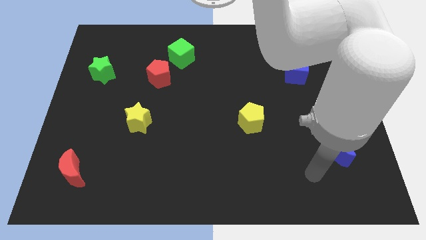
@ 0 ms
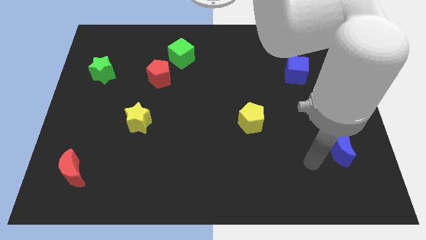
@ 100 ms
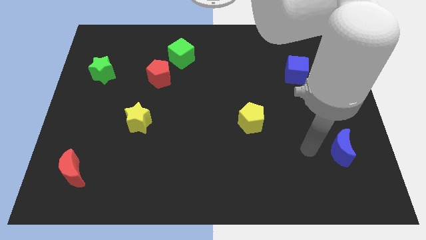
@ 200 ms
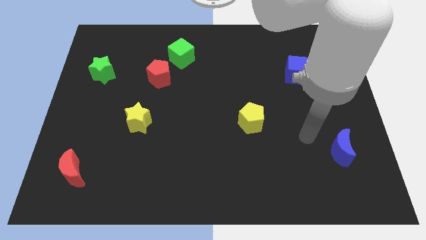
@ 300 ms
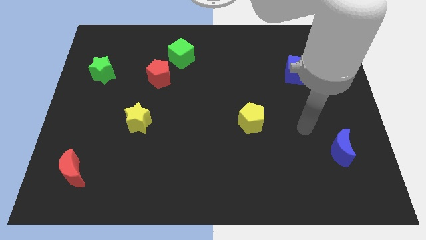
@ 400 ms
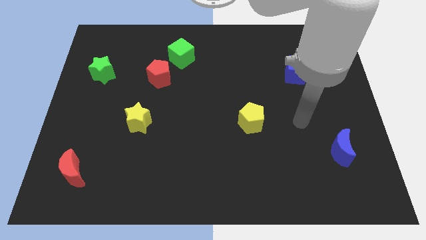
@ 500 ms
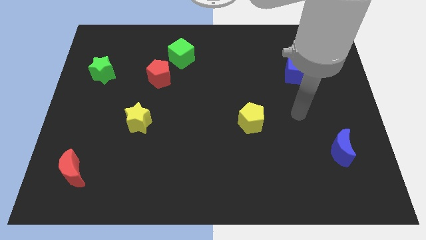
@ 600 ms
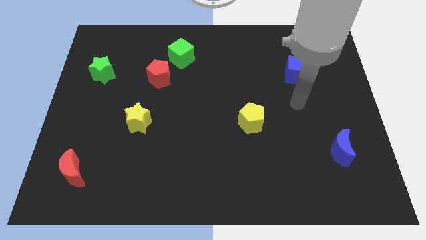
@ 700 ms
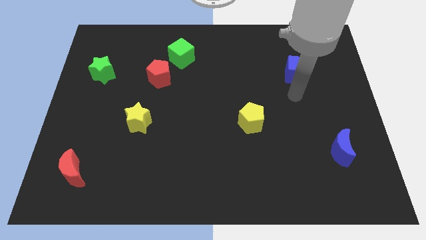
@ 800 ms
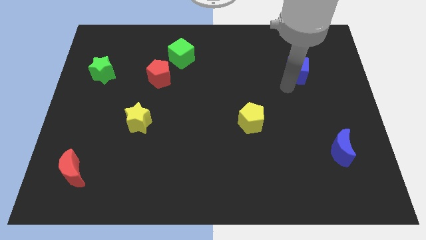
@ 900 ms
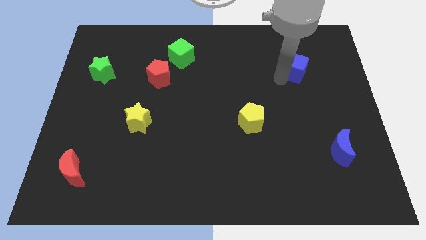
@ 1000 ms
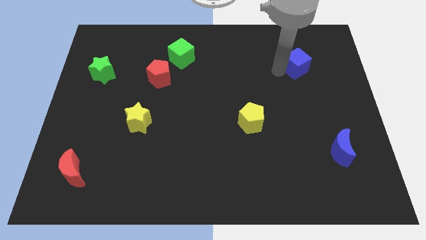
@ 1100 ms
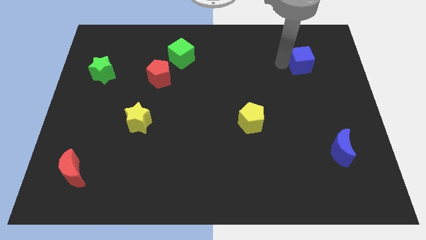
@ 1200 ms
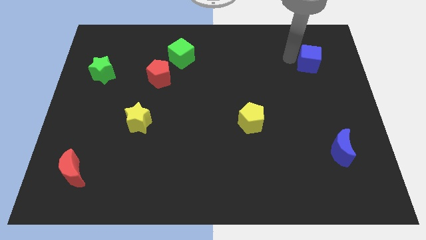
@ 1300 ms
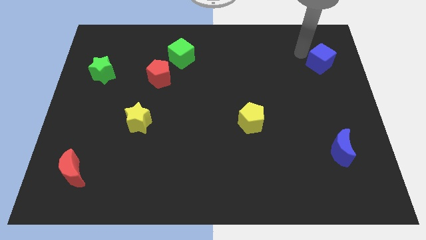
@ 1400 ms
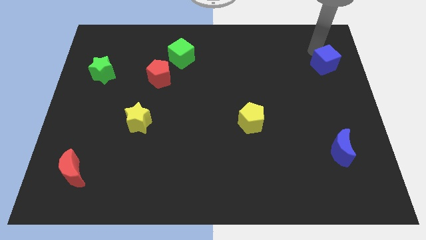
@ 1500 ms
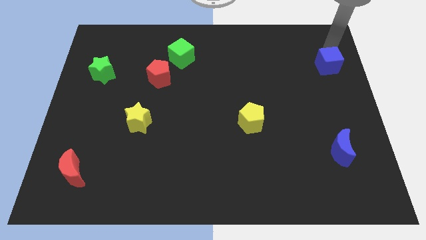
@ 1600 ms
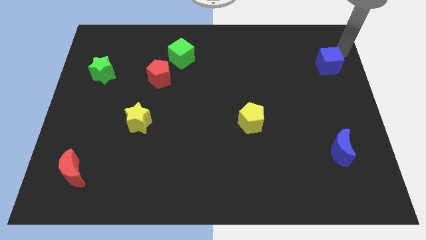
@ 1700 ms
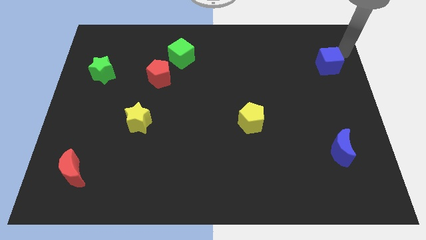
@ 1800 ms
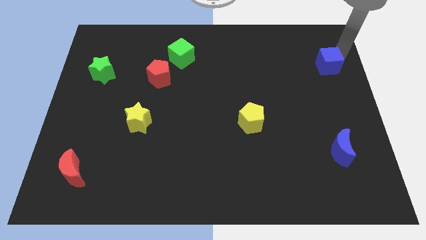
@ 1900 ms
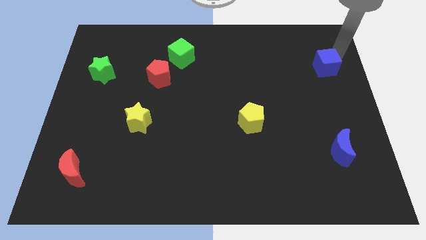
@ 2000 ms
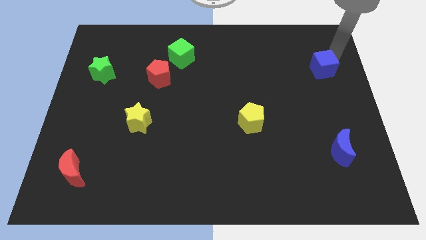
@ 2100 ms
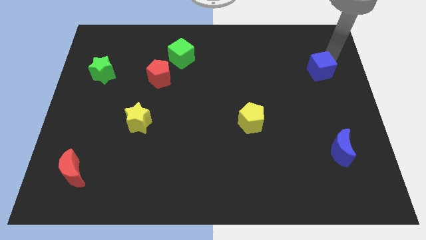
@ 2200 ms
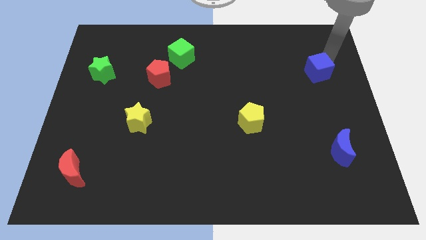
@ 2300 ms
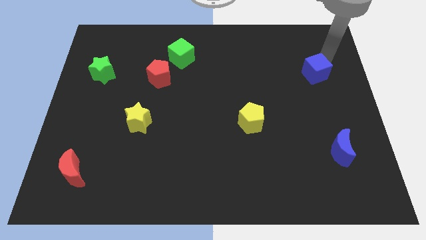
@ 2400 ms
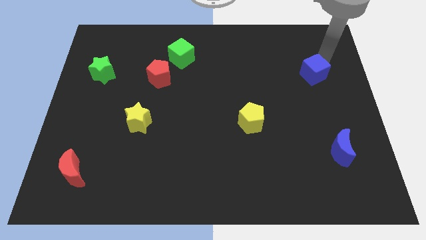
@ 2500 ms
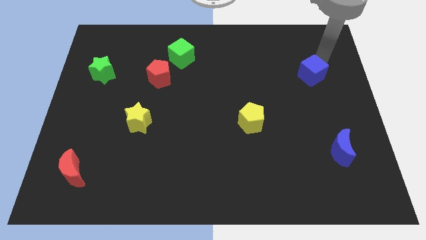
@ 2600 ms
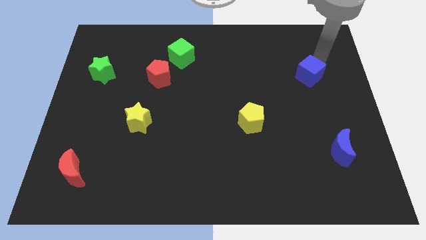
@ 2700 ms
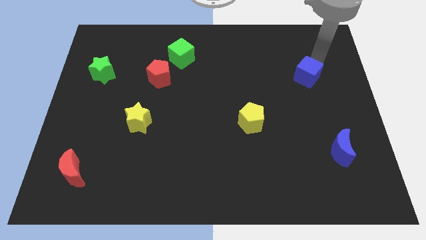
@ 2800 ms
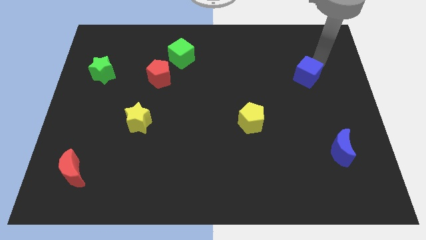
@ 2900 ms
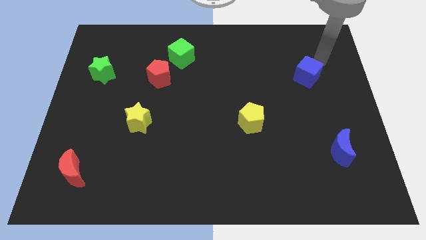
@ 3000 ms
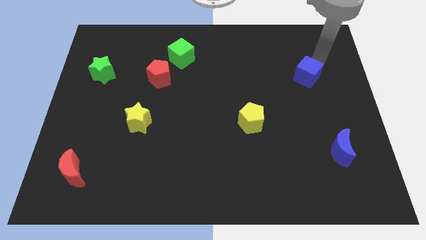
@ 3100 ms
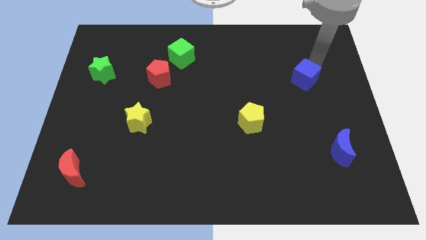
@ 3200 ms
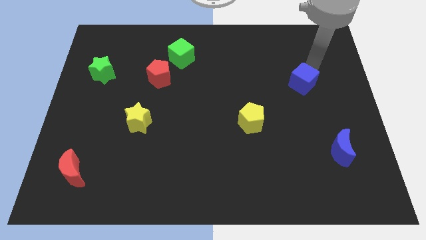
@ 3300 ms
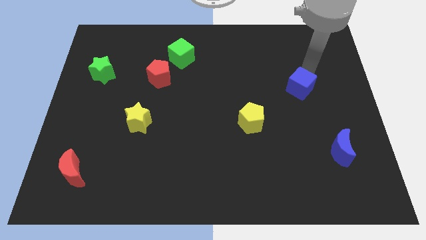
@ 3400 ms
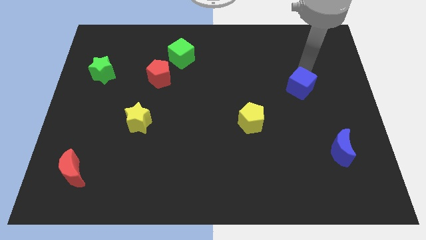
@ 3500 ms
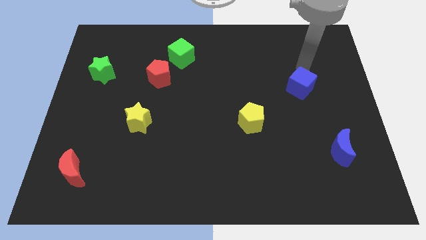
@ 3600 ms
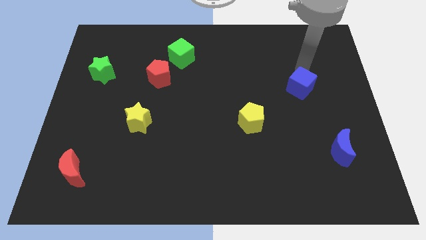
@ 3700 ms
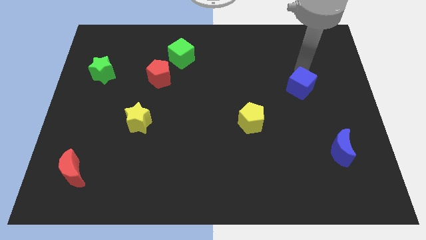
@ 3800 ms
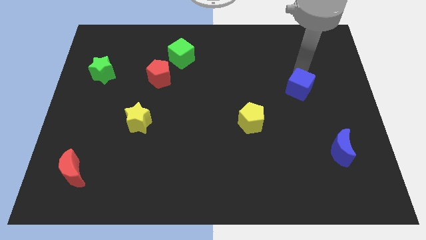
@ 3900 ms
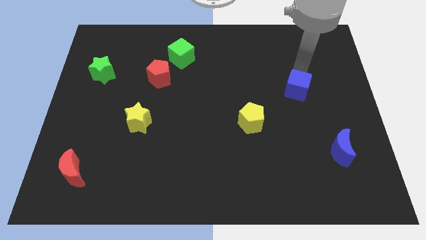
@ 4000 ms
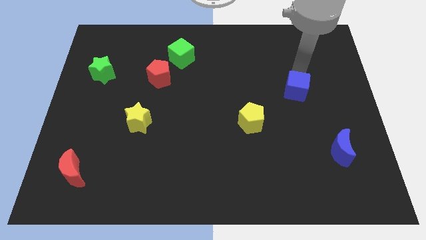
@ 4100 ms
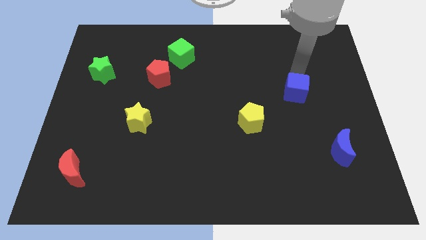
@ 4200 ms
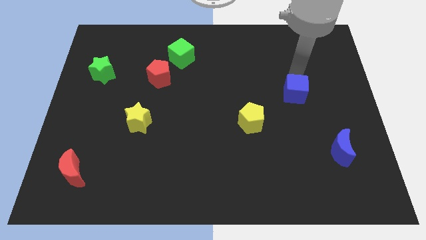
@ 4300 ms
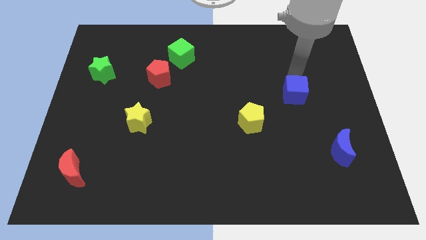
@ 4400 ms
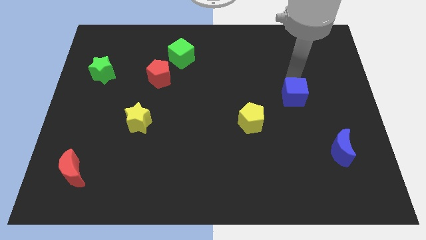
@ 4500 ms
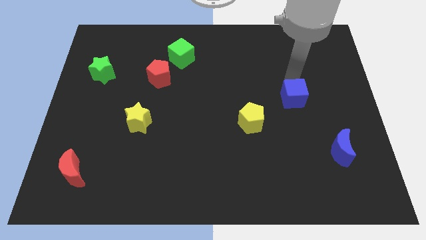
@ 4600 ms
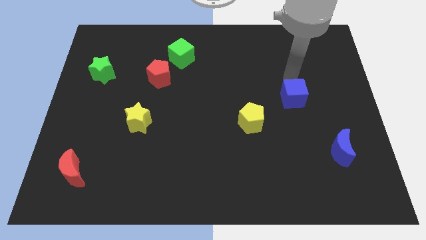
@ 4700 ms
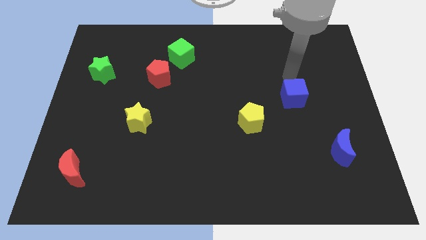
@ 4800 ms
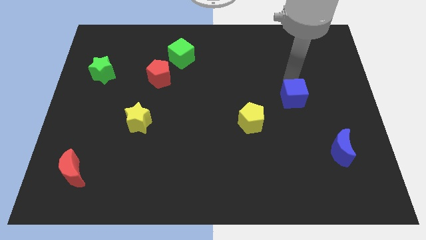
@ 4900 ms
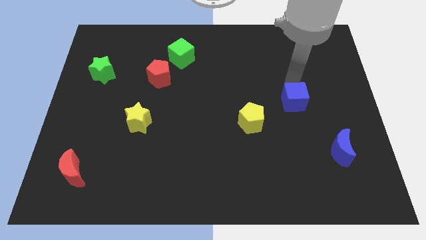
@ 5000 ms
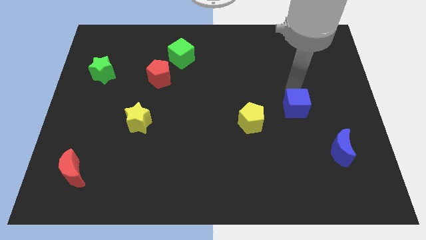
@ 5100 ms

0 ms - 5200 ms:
slide the blue cube right of the yellow pentagon

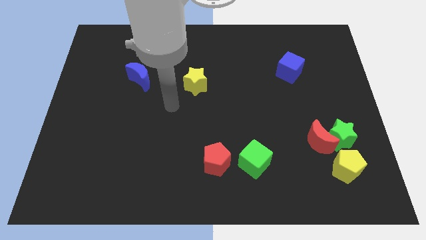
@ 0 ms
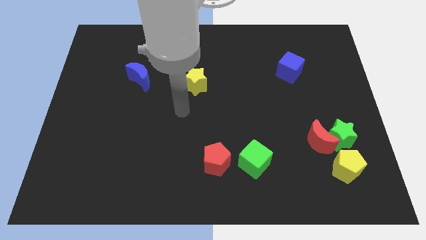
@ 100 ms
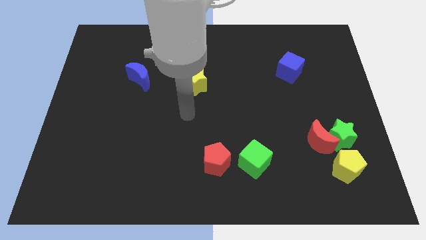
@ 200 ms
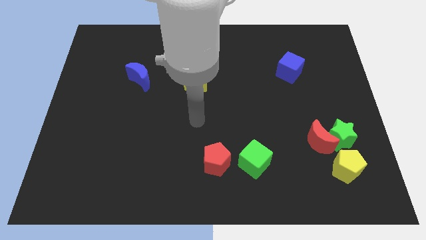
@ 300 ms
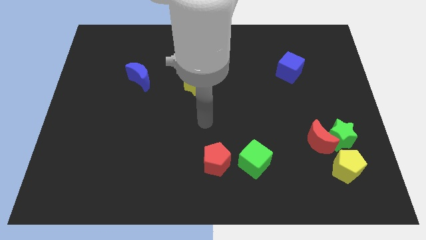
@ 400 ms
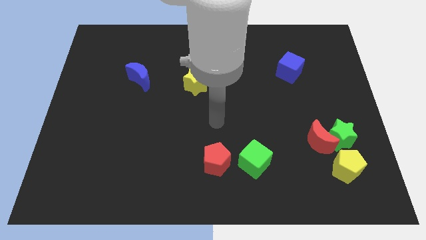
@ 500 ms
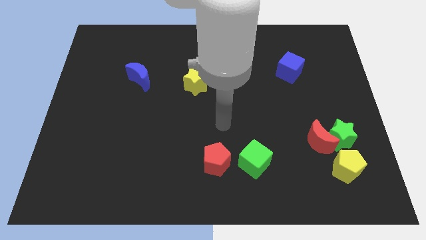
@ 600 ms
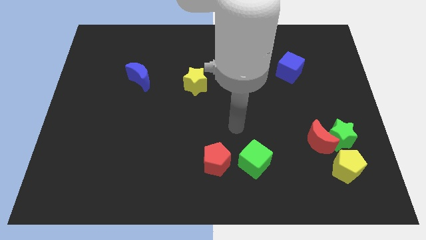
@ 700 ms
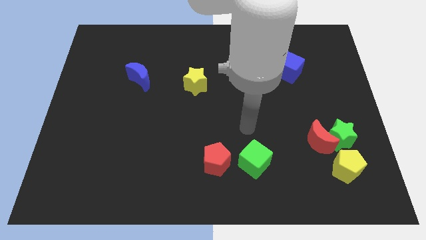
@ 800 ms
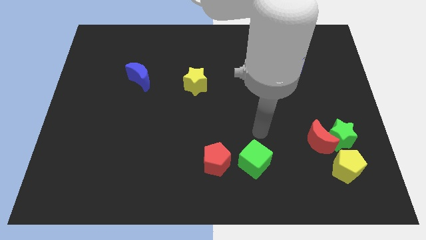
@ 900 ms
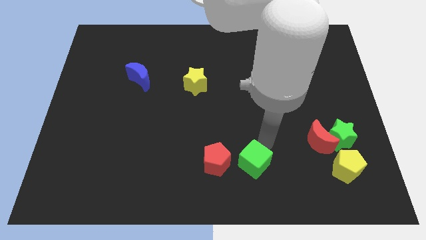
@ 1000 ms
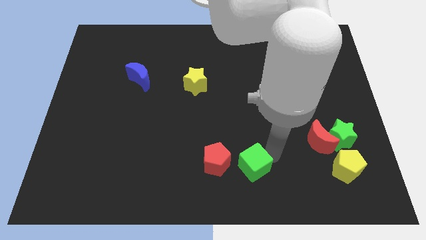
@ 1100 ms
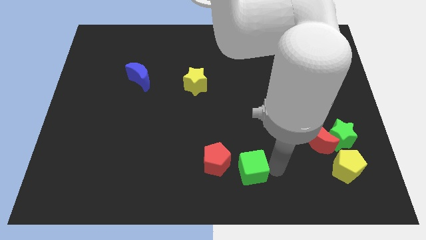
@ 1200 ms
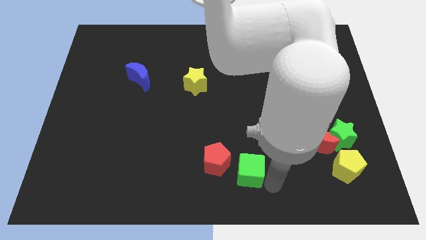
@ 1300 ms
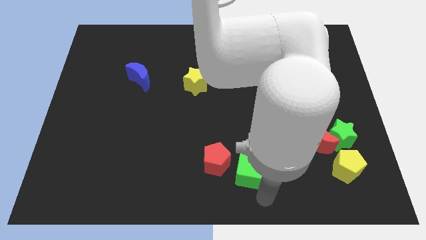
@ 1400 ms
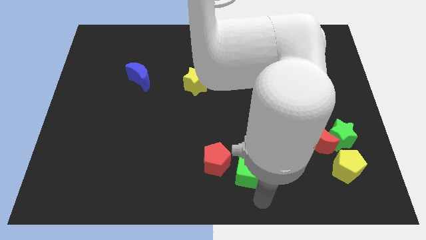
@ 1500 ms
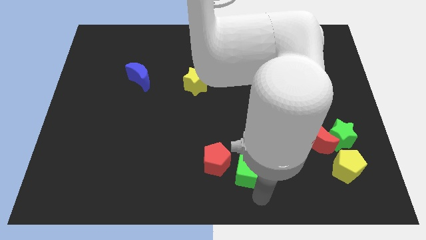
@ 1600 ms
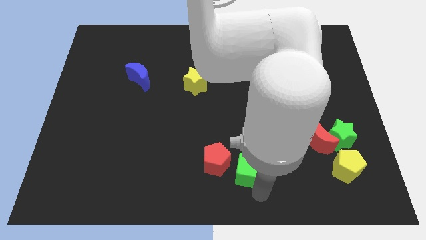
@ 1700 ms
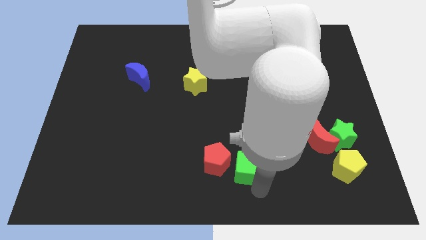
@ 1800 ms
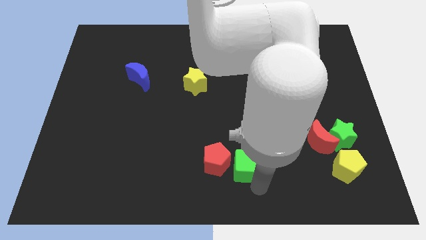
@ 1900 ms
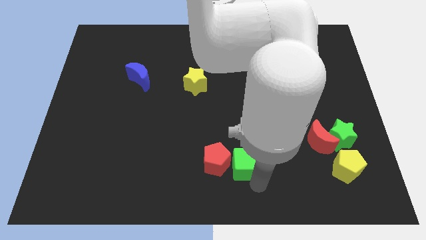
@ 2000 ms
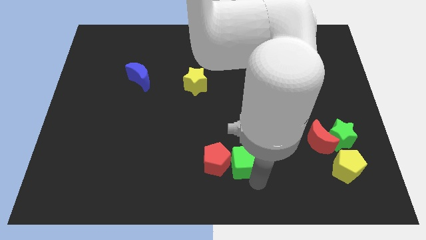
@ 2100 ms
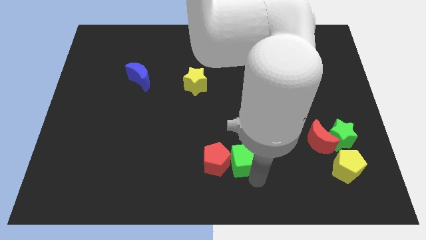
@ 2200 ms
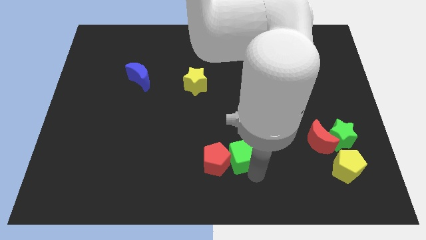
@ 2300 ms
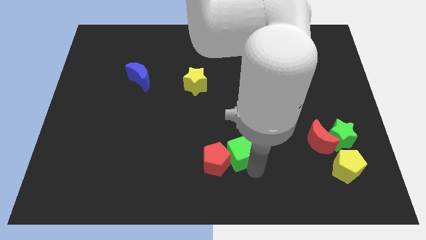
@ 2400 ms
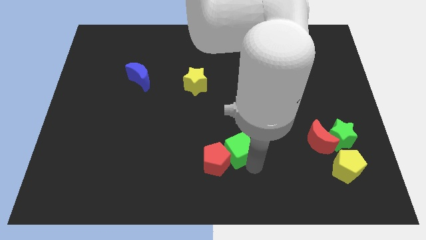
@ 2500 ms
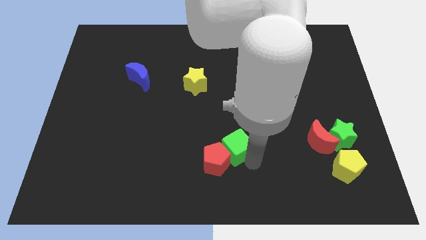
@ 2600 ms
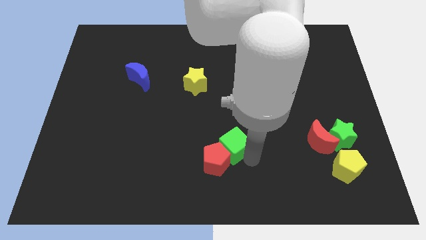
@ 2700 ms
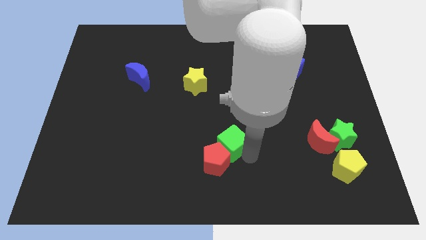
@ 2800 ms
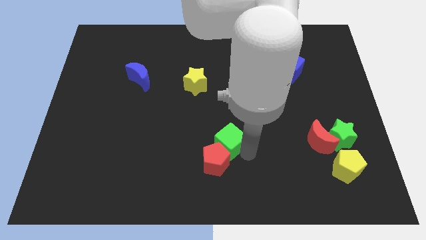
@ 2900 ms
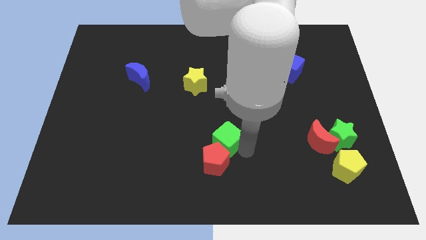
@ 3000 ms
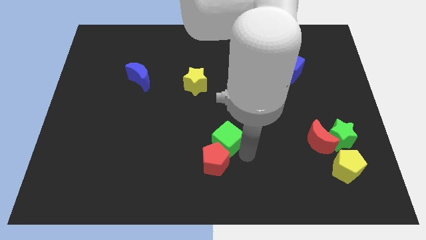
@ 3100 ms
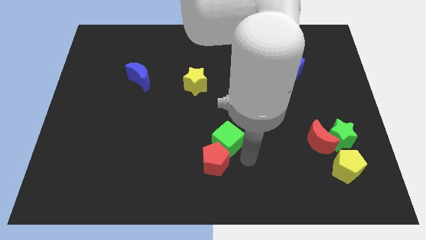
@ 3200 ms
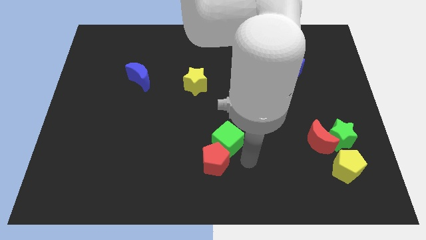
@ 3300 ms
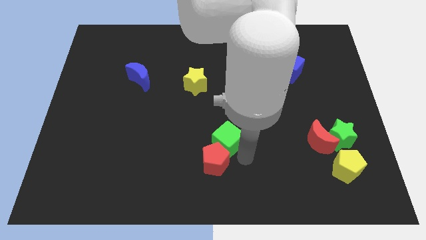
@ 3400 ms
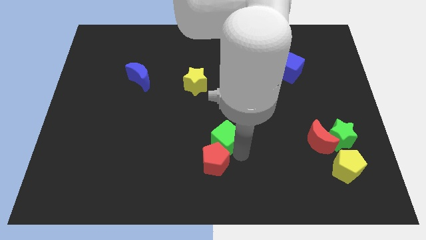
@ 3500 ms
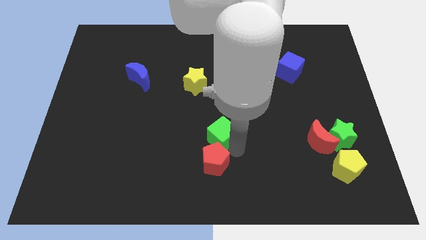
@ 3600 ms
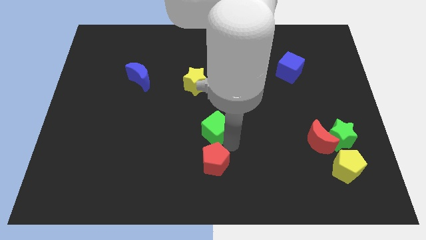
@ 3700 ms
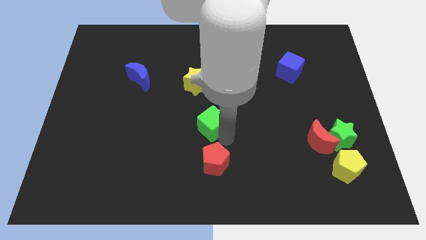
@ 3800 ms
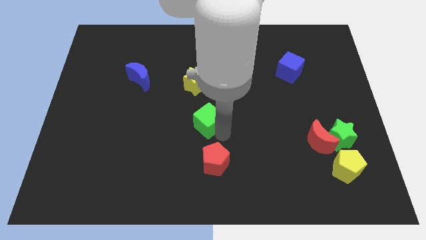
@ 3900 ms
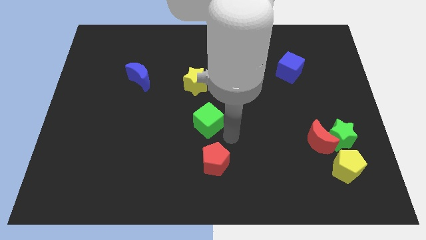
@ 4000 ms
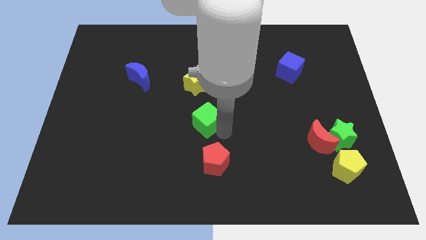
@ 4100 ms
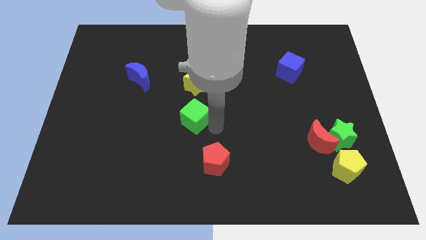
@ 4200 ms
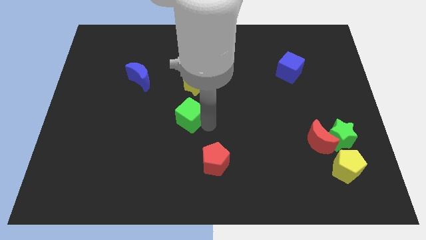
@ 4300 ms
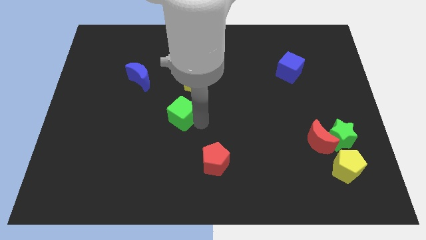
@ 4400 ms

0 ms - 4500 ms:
push the green cube to the bottom left side of the yellow star
